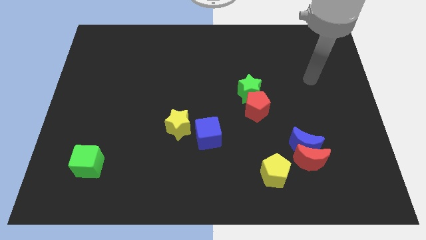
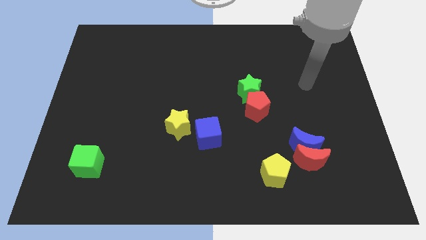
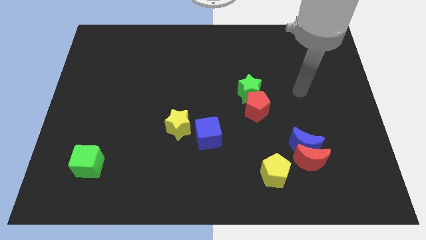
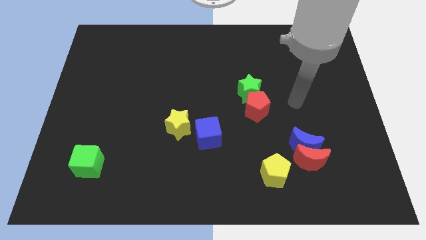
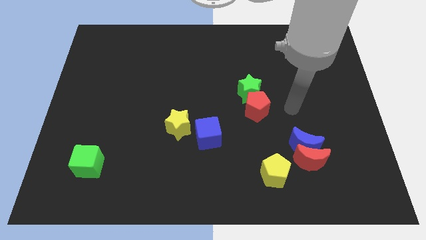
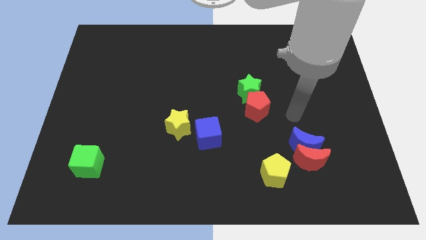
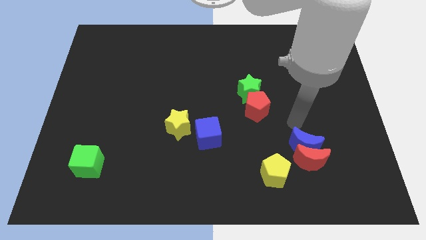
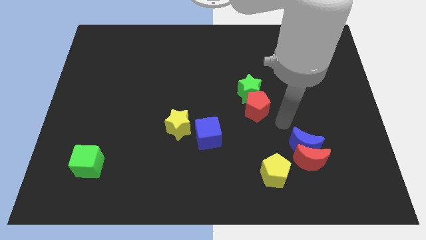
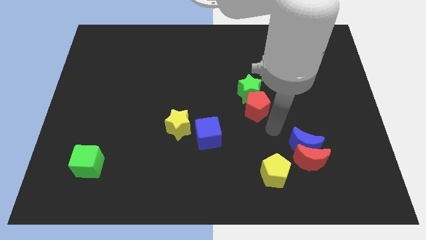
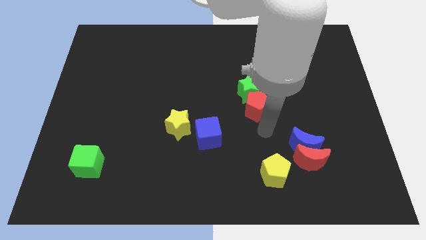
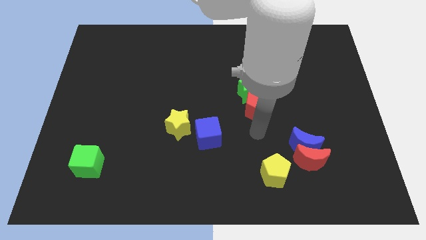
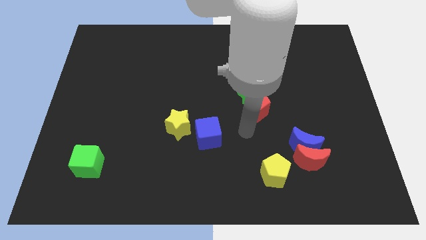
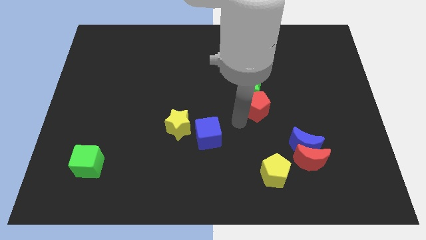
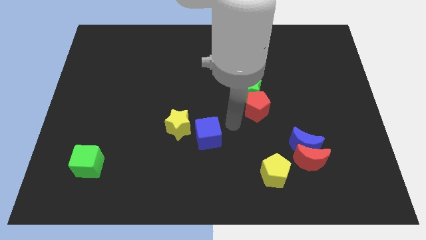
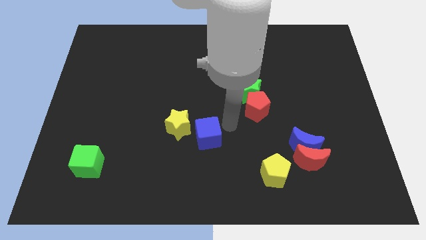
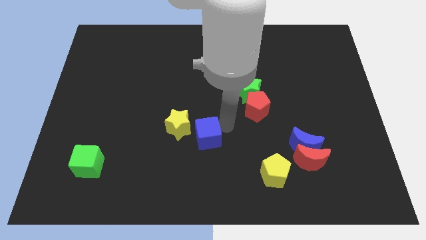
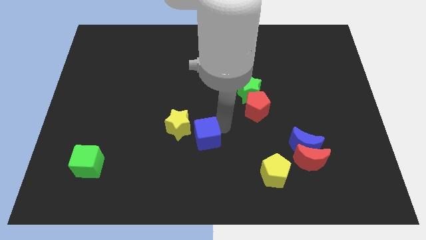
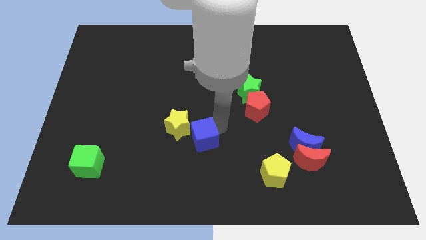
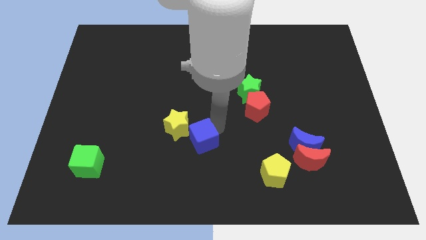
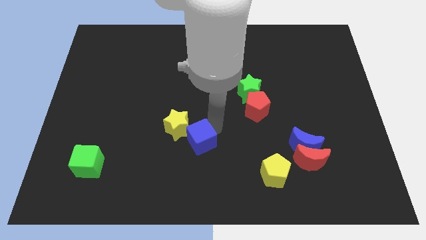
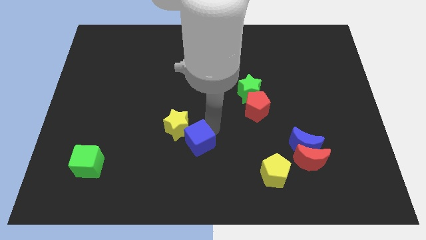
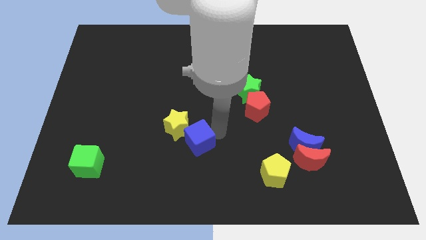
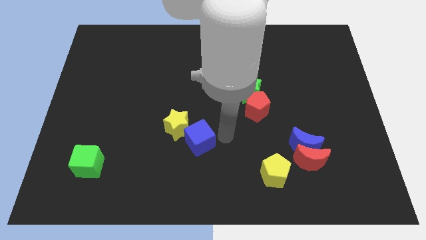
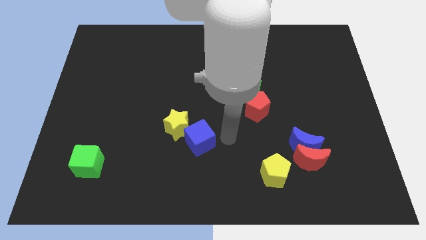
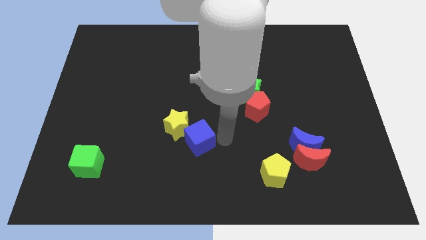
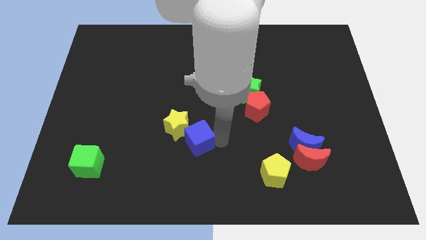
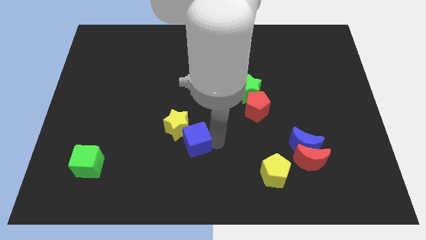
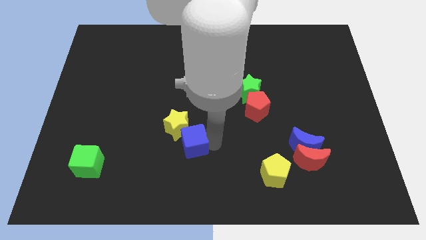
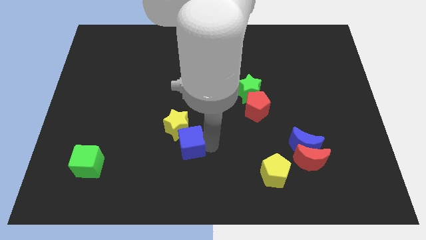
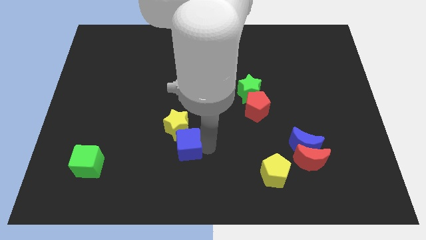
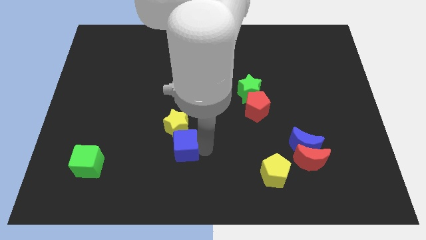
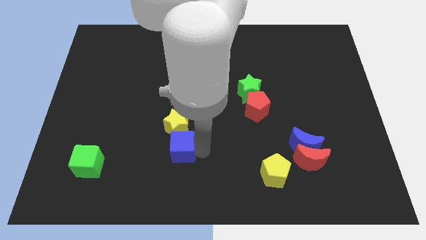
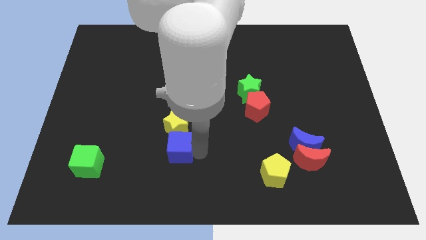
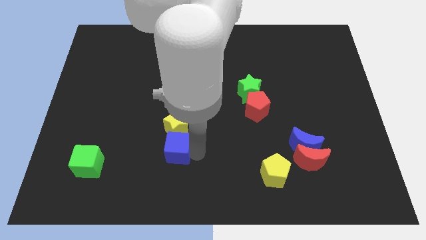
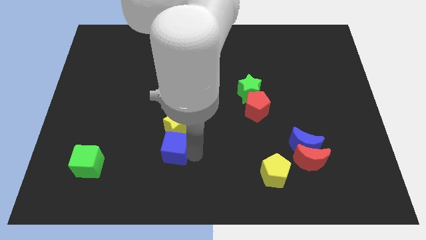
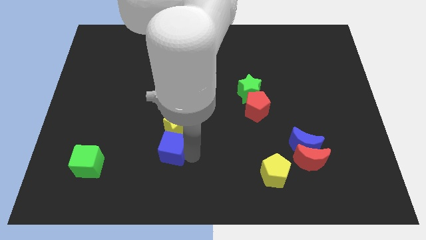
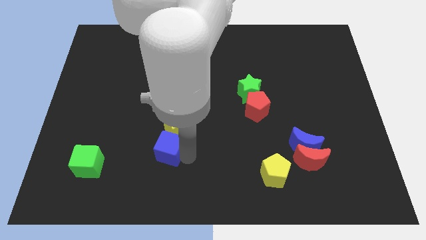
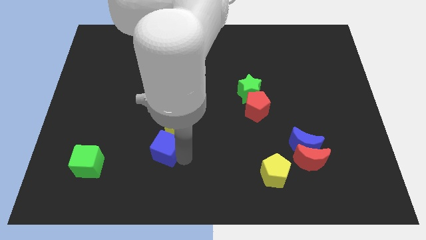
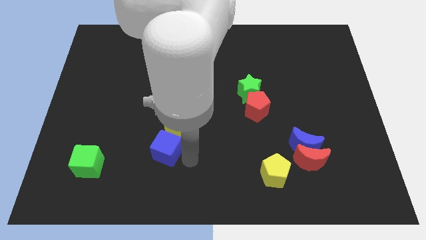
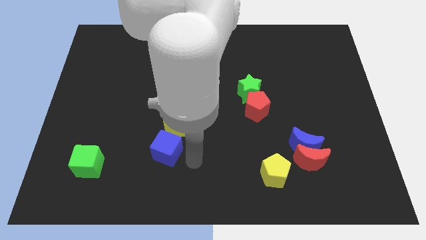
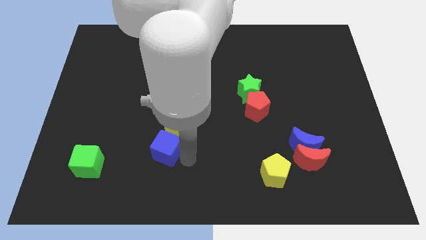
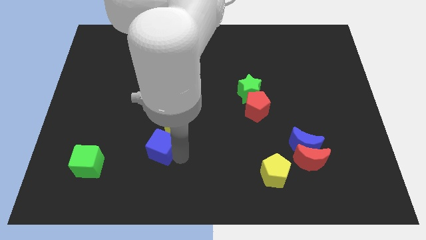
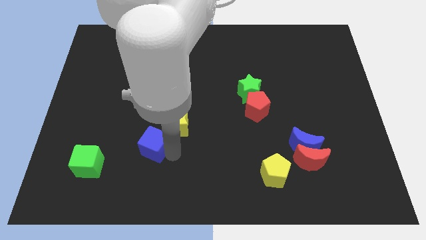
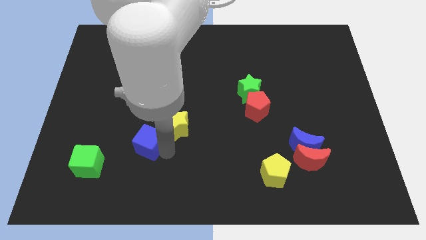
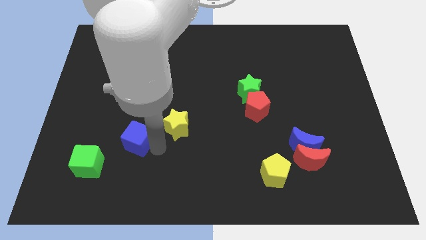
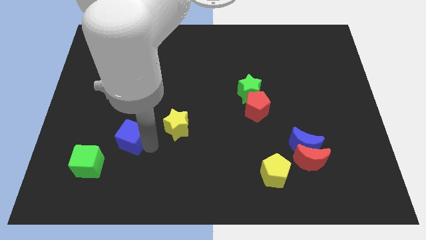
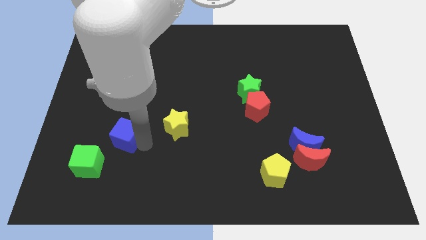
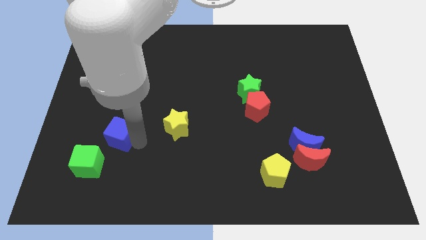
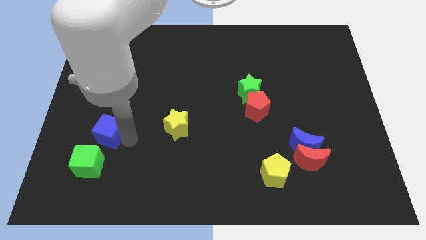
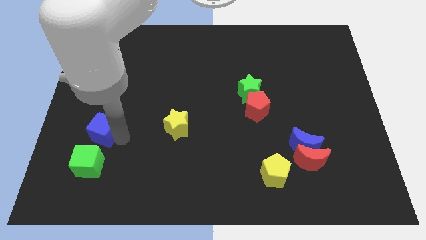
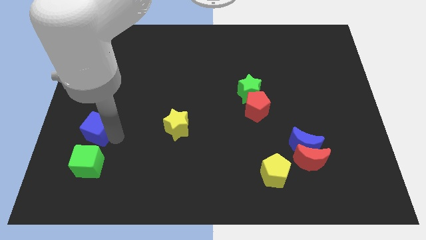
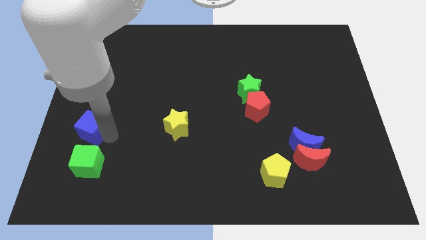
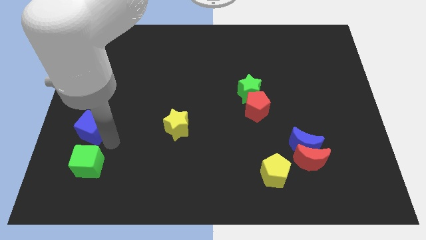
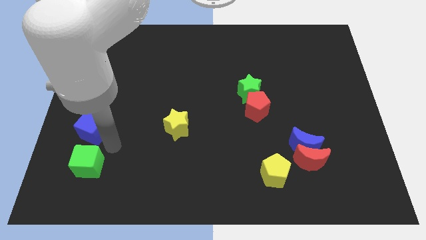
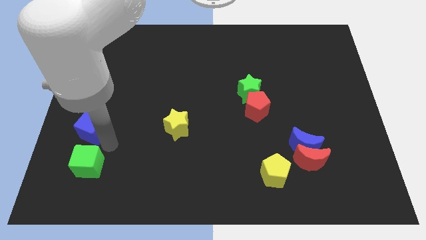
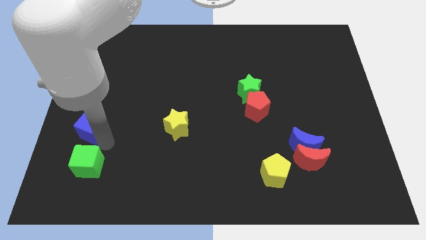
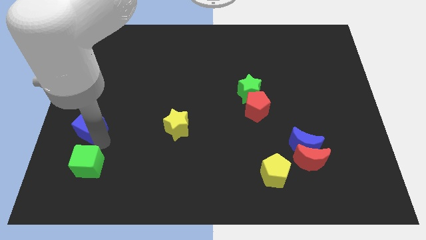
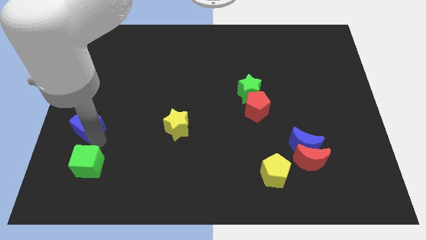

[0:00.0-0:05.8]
push the blue cube to the center left

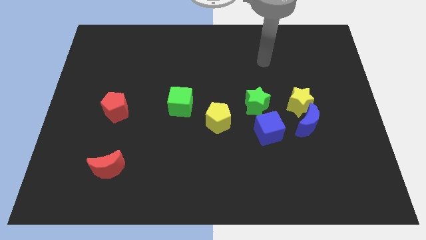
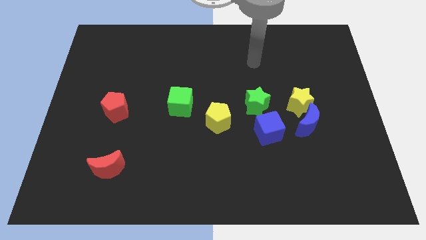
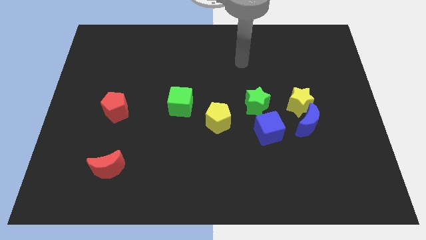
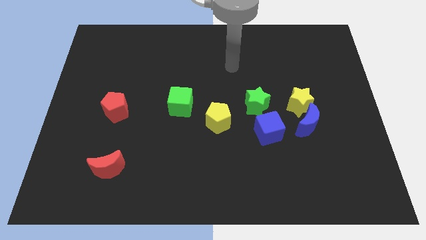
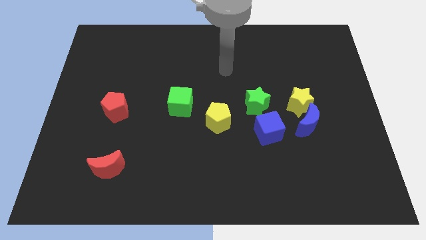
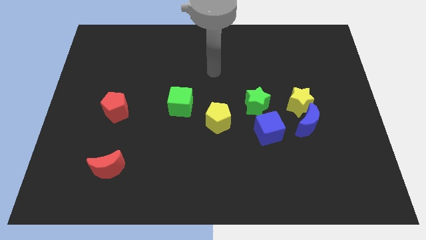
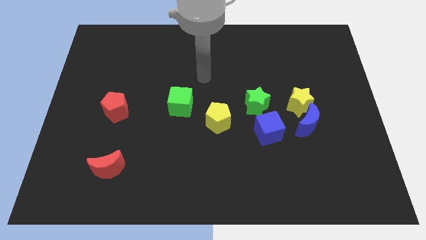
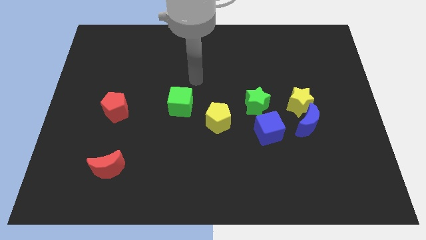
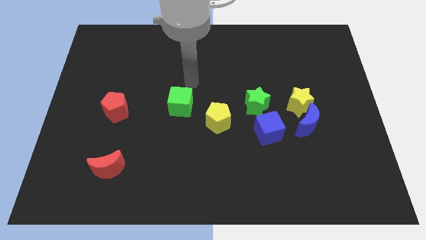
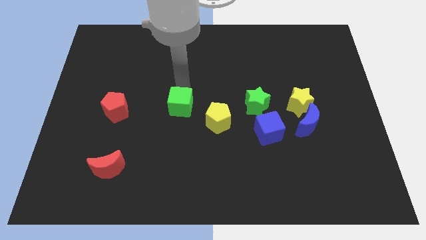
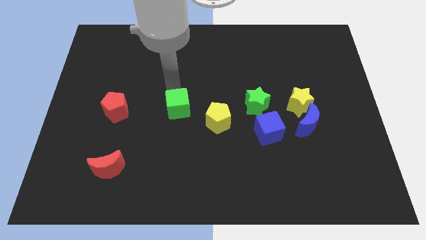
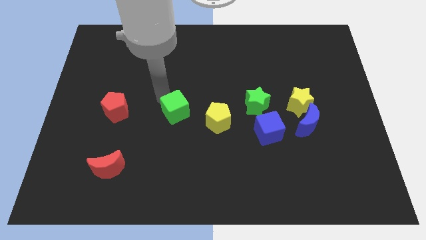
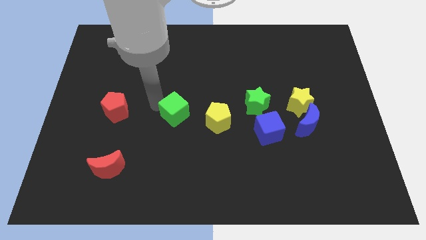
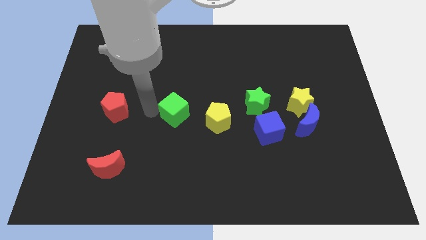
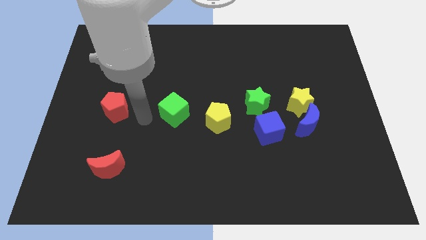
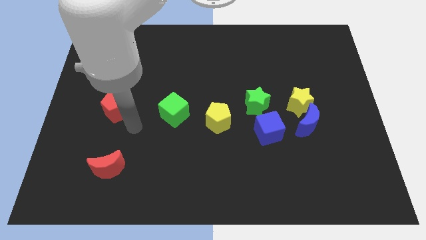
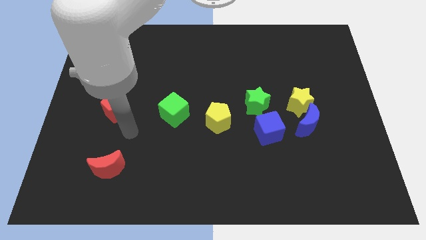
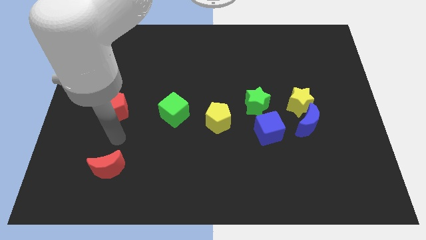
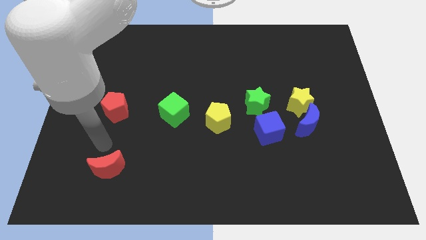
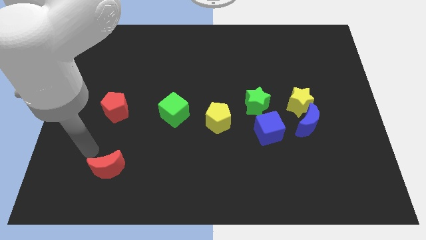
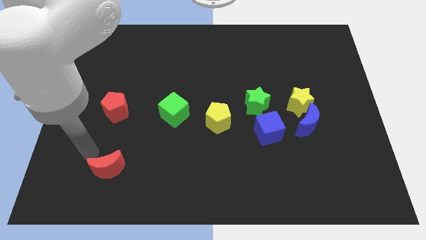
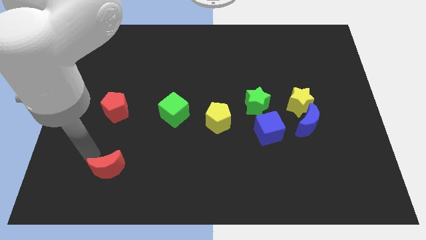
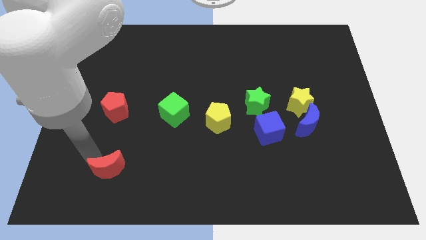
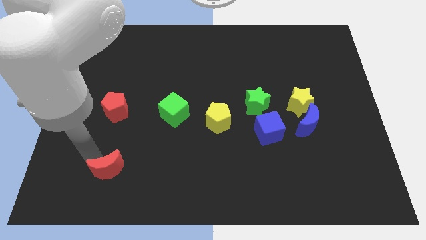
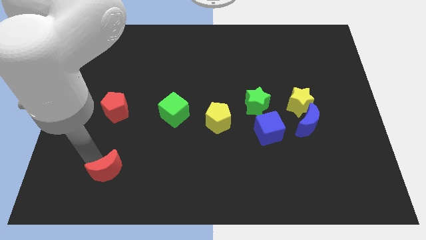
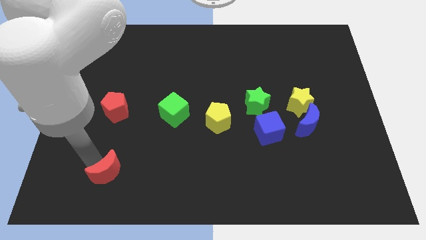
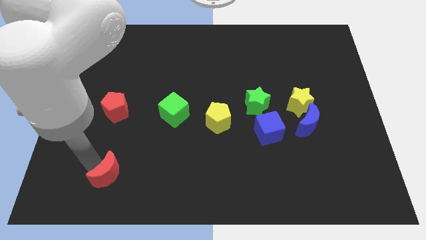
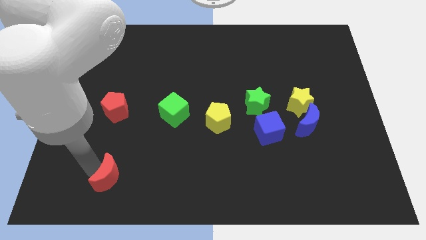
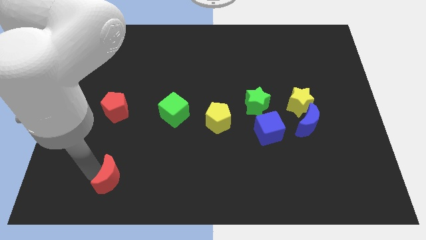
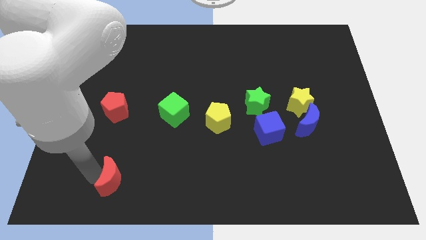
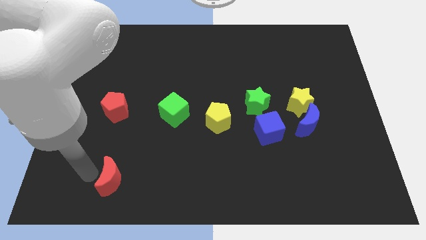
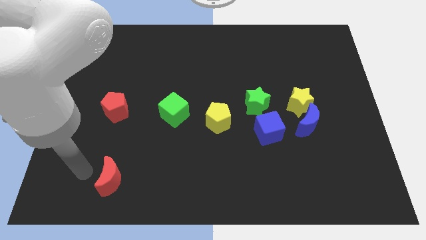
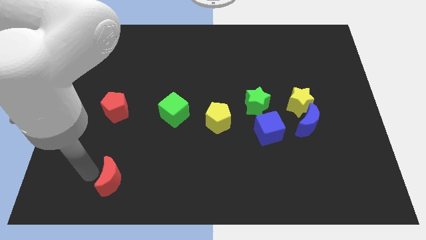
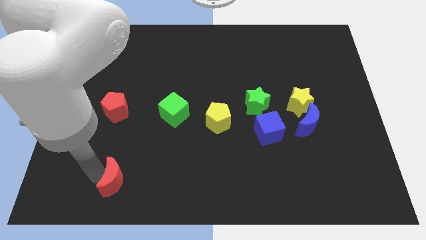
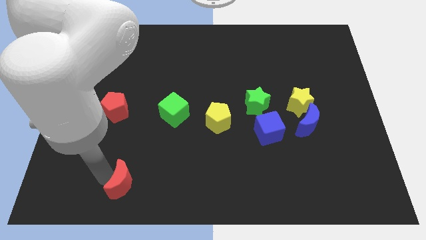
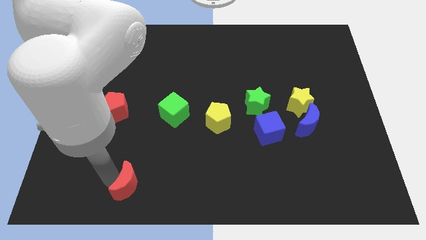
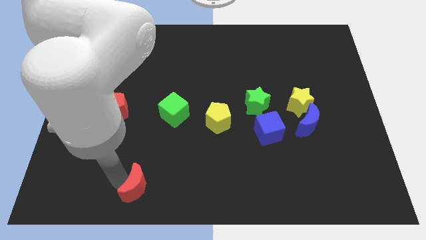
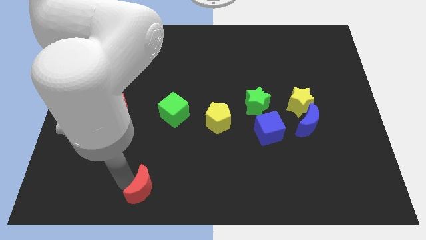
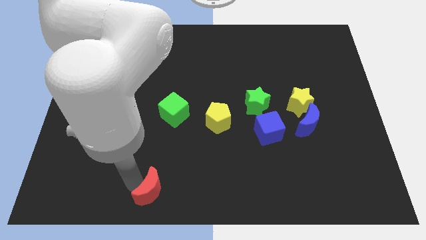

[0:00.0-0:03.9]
move the red moon to the bottom side
